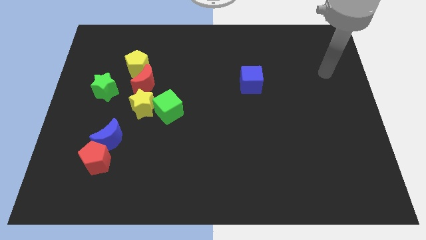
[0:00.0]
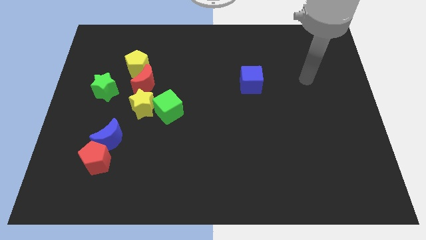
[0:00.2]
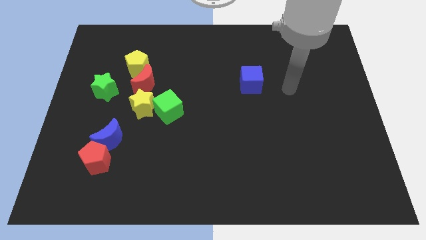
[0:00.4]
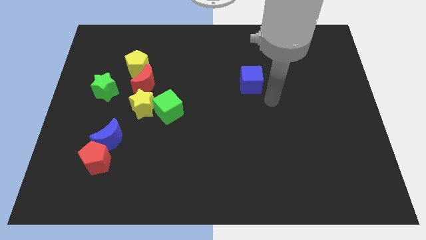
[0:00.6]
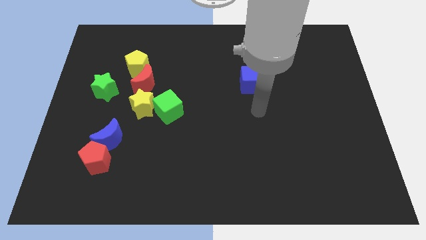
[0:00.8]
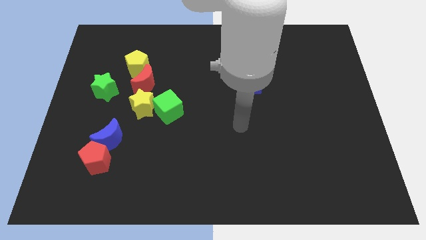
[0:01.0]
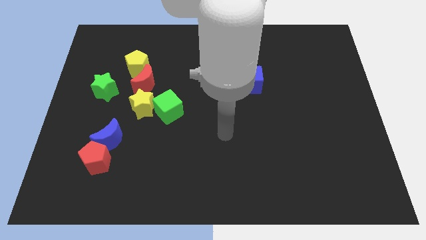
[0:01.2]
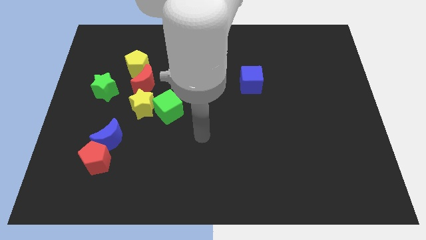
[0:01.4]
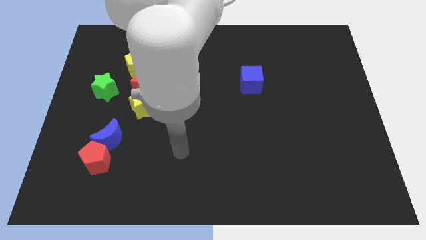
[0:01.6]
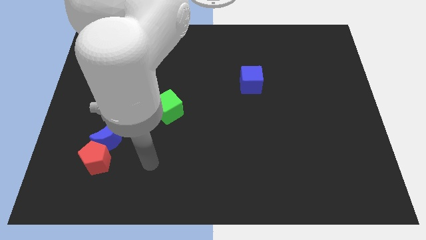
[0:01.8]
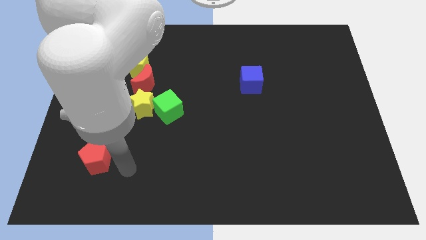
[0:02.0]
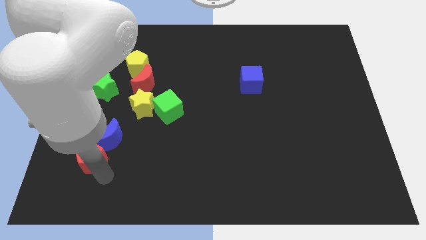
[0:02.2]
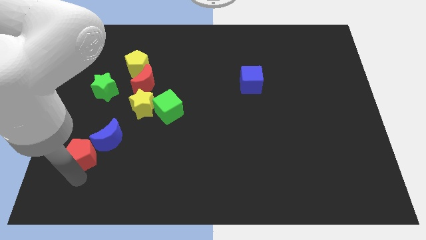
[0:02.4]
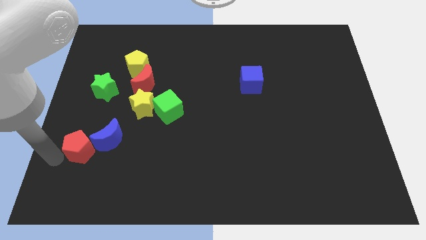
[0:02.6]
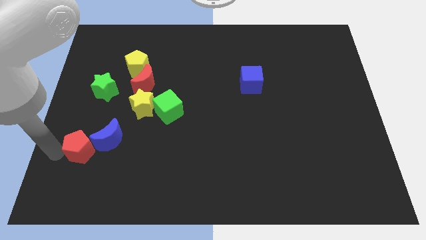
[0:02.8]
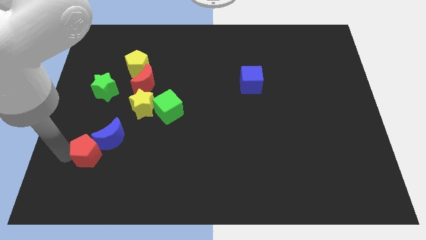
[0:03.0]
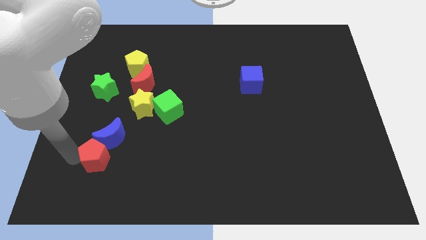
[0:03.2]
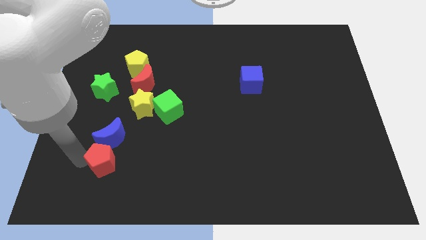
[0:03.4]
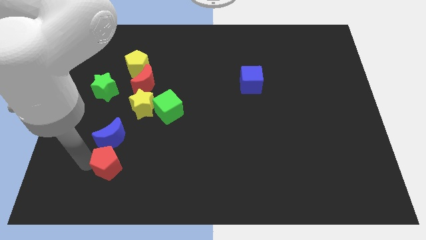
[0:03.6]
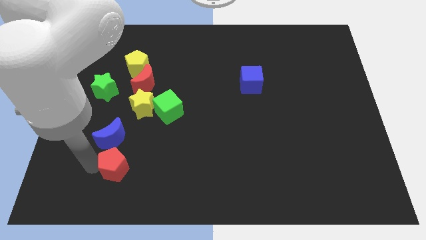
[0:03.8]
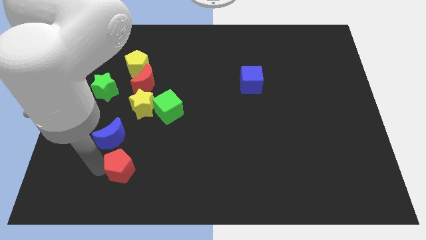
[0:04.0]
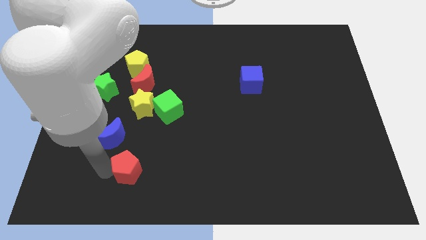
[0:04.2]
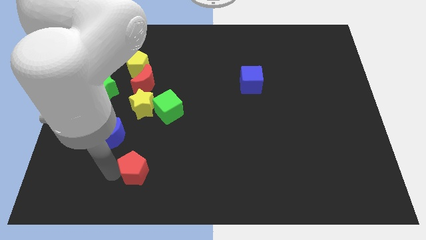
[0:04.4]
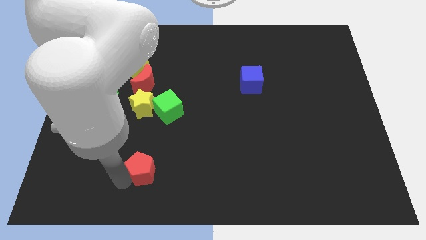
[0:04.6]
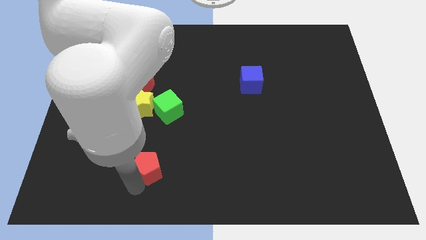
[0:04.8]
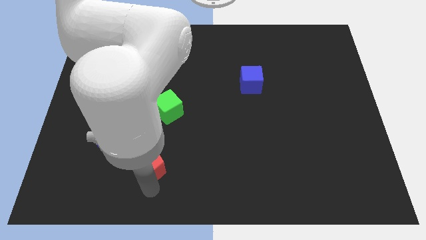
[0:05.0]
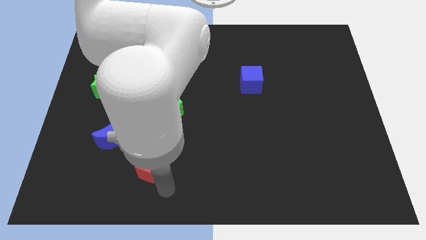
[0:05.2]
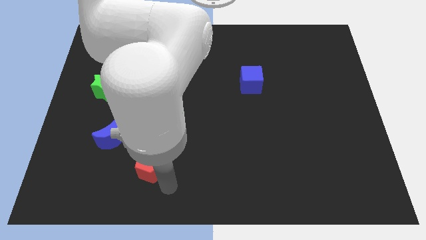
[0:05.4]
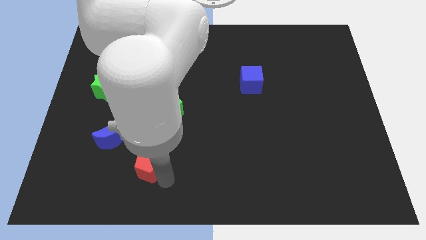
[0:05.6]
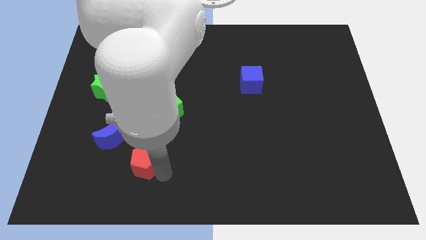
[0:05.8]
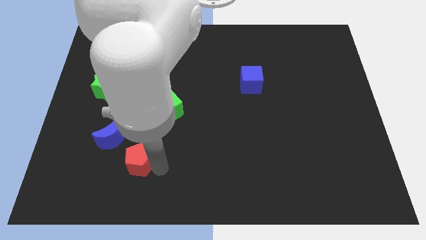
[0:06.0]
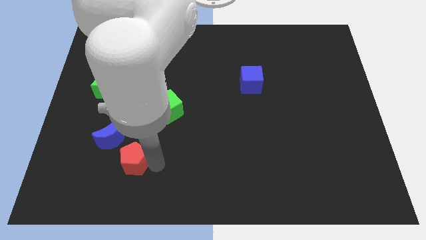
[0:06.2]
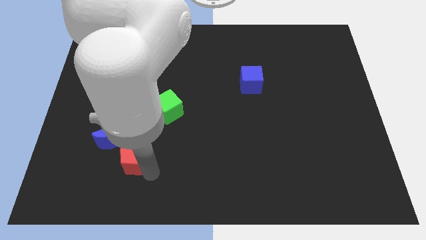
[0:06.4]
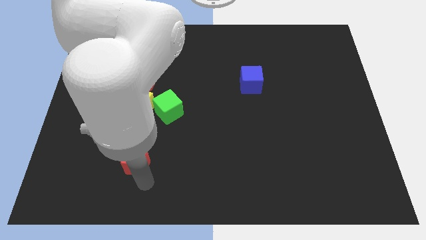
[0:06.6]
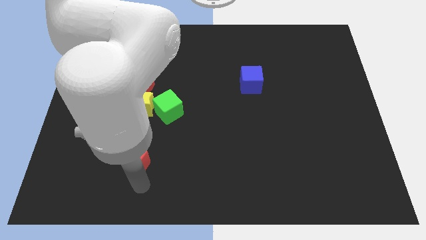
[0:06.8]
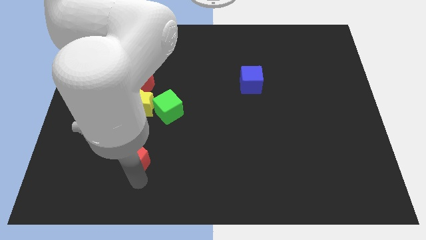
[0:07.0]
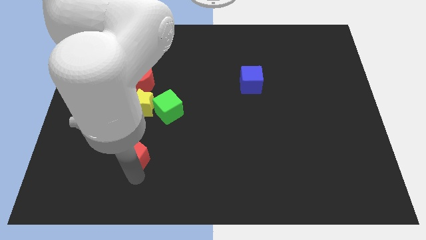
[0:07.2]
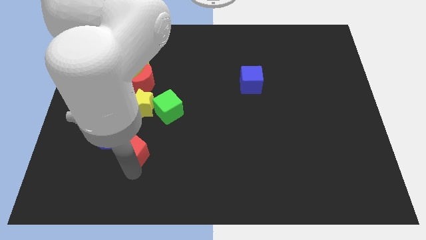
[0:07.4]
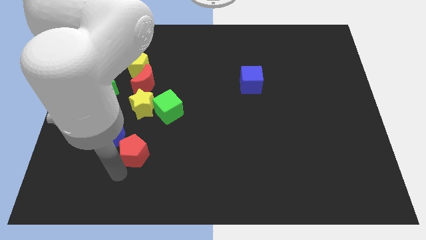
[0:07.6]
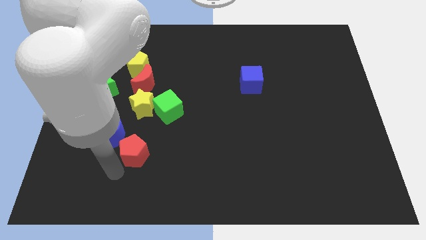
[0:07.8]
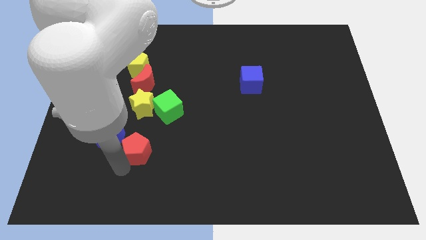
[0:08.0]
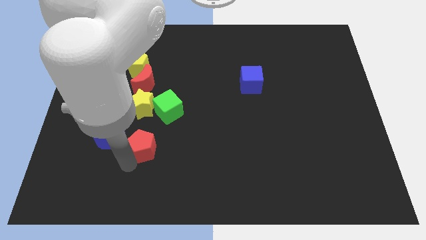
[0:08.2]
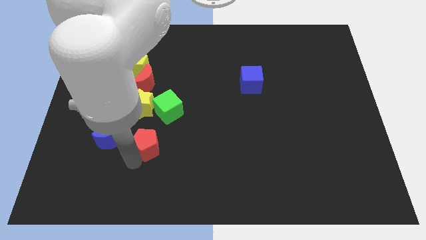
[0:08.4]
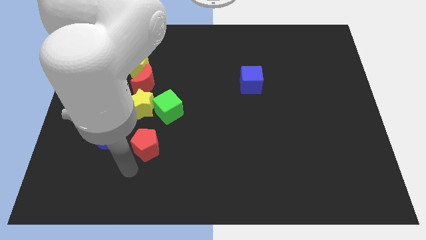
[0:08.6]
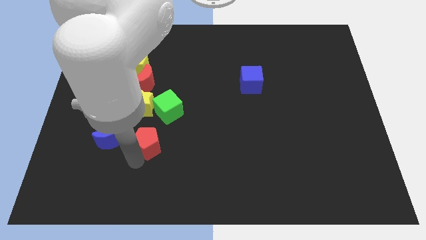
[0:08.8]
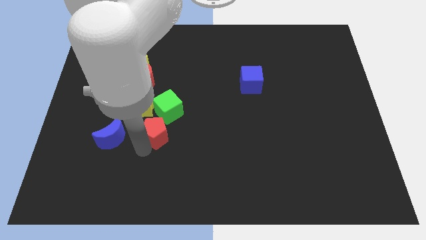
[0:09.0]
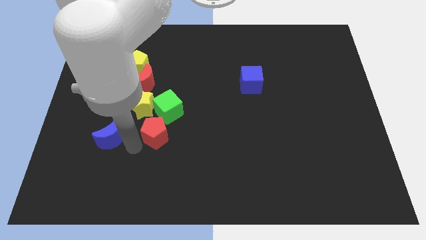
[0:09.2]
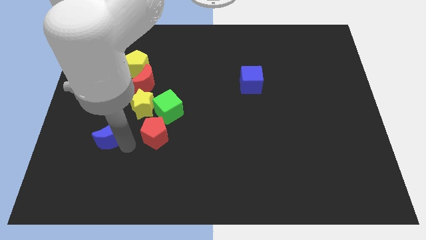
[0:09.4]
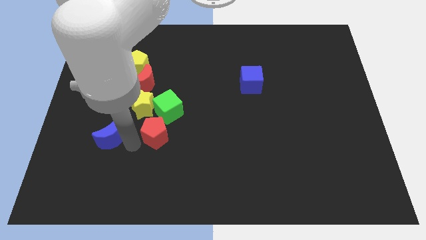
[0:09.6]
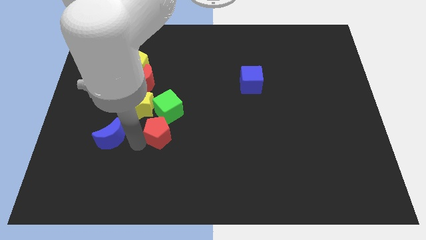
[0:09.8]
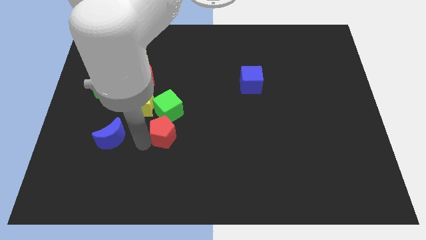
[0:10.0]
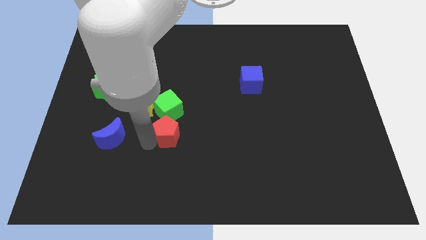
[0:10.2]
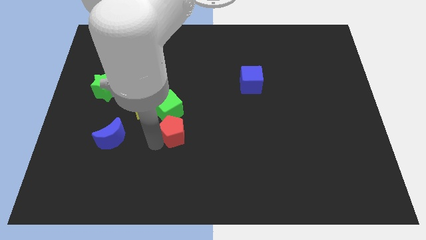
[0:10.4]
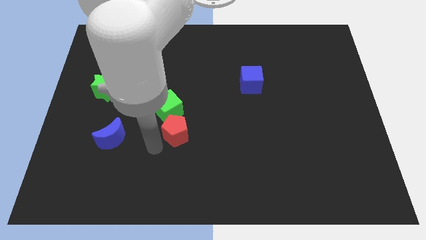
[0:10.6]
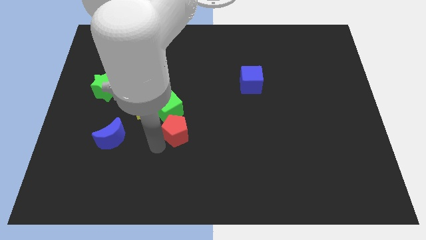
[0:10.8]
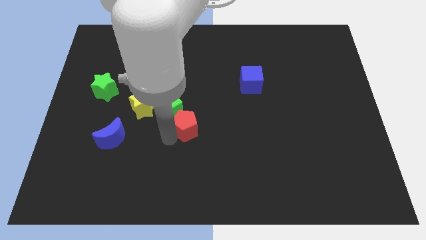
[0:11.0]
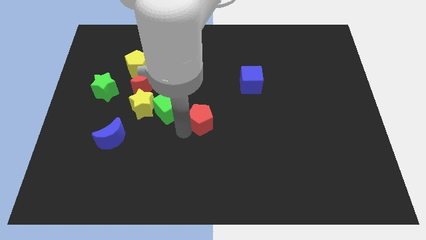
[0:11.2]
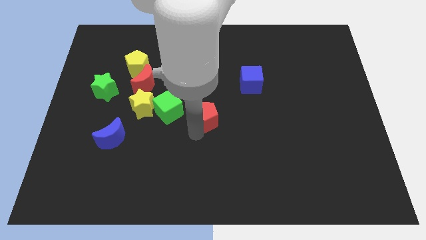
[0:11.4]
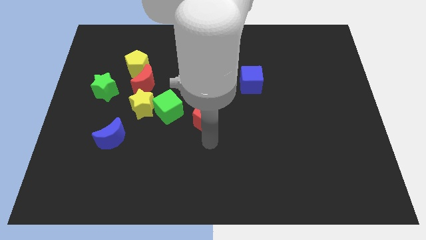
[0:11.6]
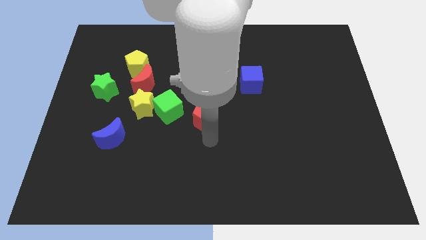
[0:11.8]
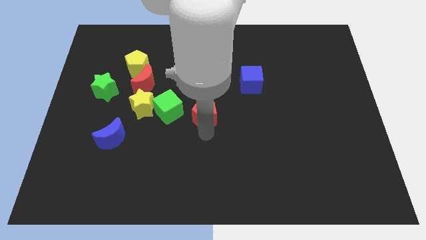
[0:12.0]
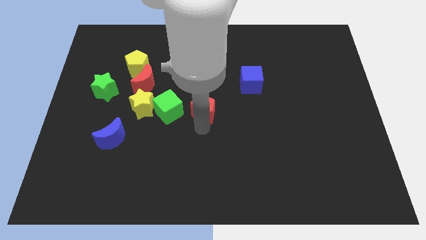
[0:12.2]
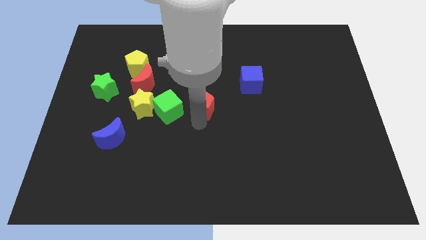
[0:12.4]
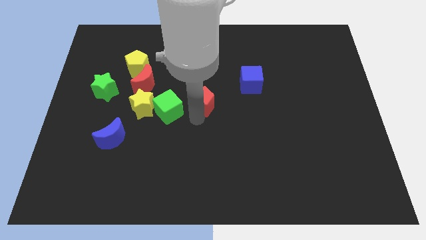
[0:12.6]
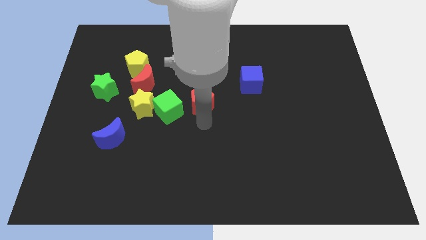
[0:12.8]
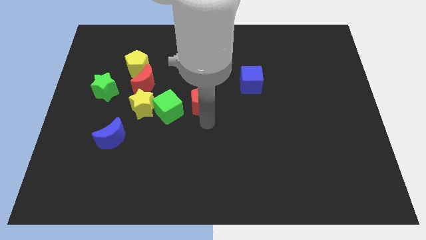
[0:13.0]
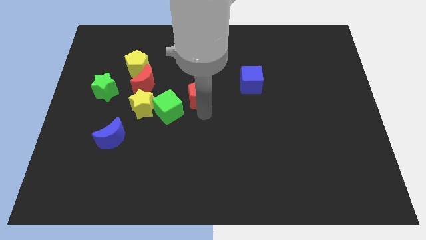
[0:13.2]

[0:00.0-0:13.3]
put the red pentagon just right of the red moon
